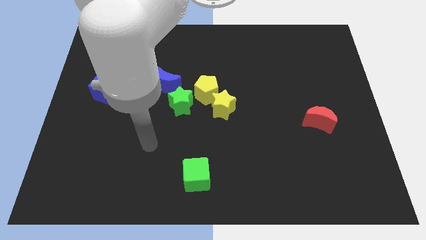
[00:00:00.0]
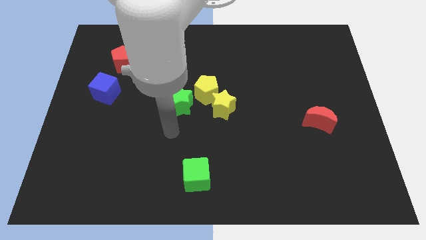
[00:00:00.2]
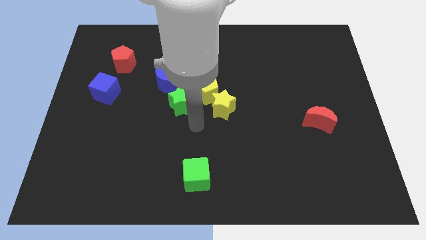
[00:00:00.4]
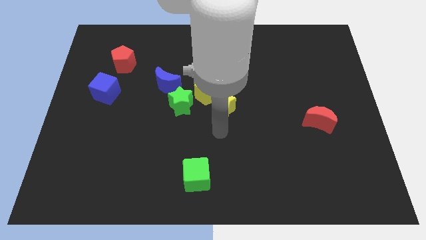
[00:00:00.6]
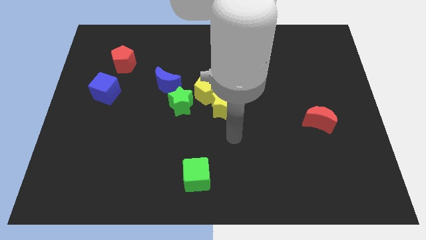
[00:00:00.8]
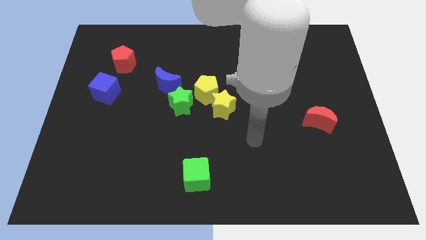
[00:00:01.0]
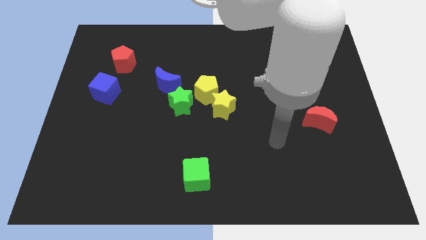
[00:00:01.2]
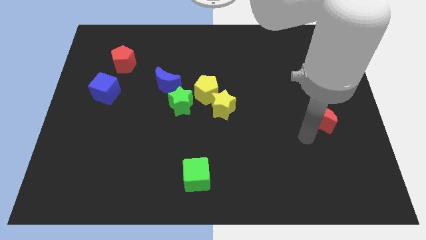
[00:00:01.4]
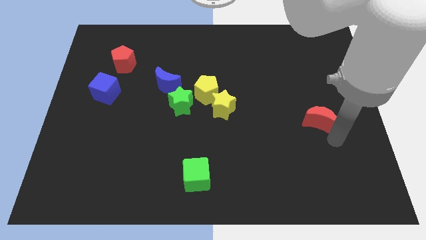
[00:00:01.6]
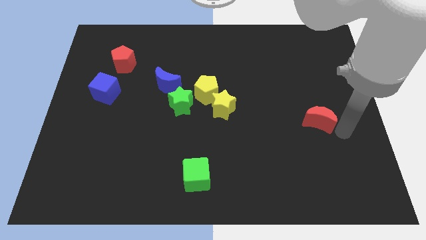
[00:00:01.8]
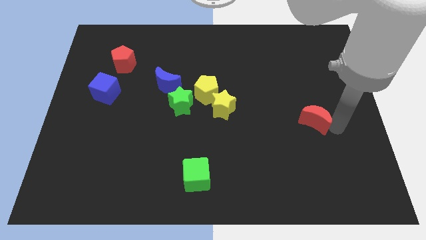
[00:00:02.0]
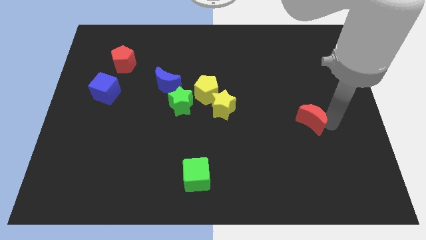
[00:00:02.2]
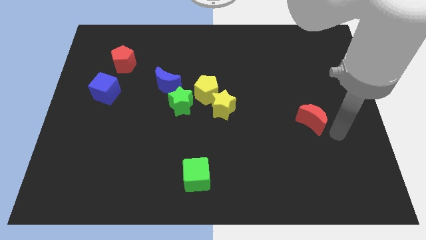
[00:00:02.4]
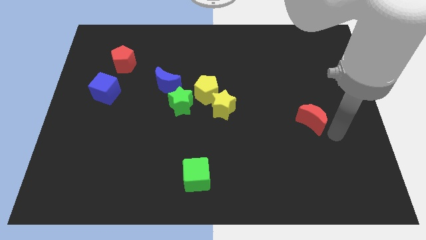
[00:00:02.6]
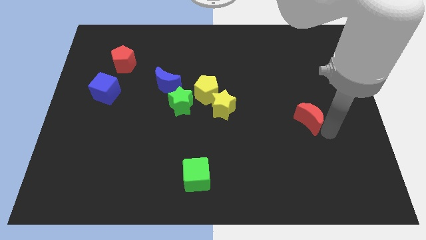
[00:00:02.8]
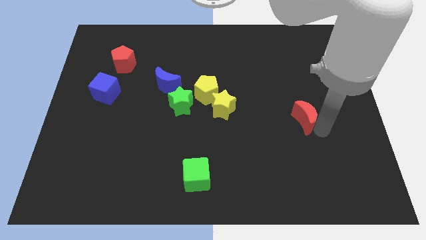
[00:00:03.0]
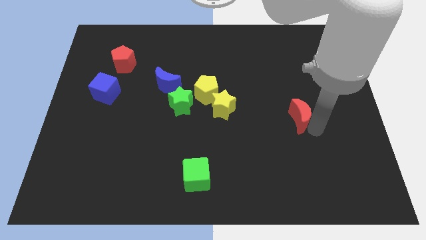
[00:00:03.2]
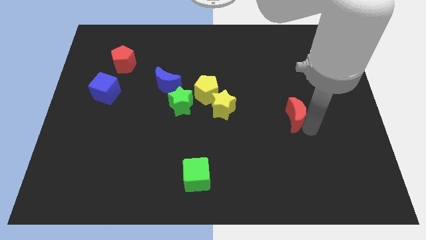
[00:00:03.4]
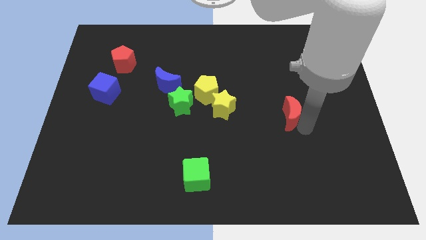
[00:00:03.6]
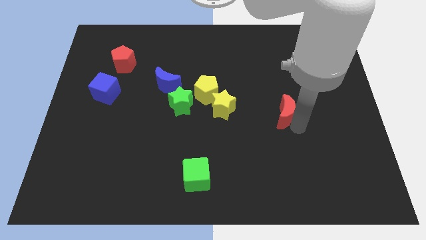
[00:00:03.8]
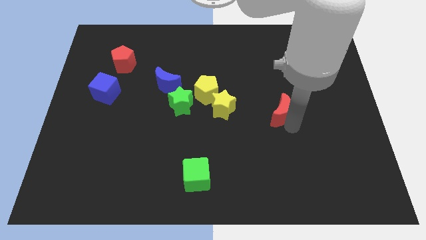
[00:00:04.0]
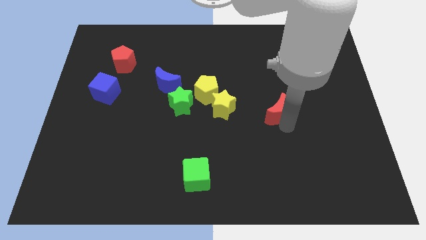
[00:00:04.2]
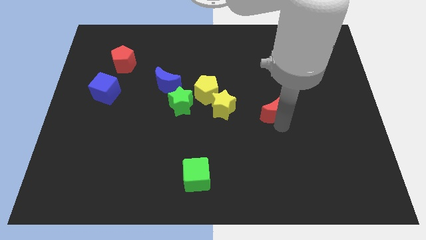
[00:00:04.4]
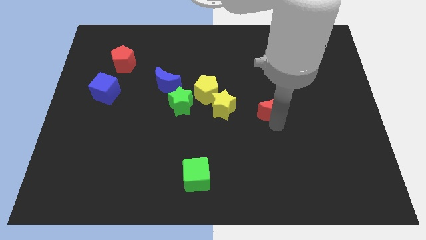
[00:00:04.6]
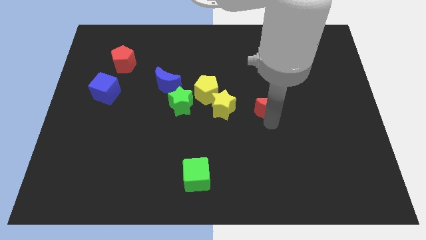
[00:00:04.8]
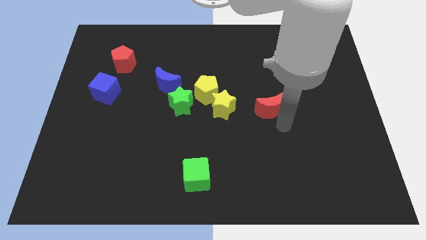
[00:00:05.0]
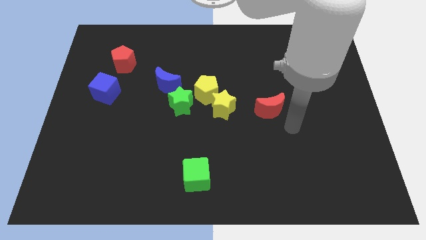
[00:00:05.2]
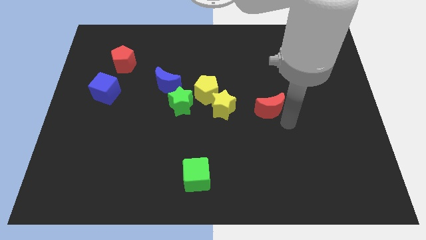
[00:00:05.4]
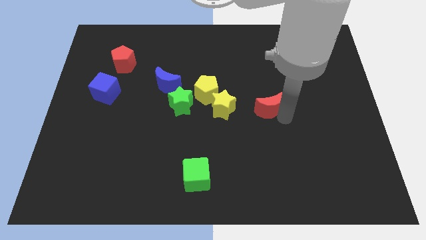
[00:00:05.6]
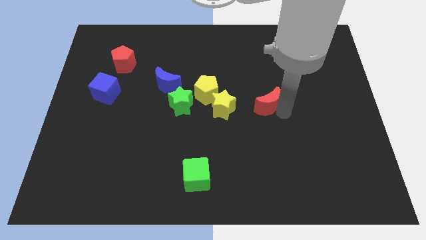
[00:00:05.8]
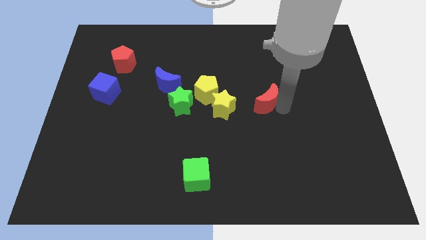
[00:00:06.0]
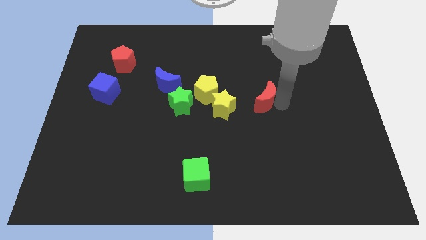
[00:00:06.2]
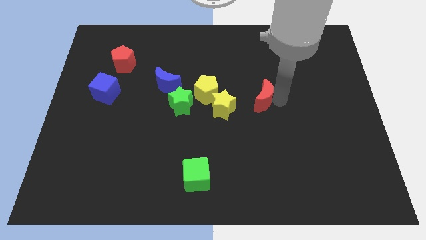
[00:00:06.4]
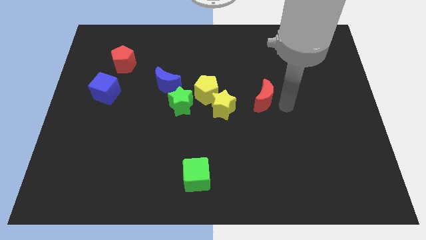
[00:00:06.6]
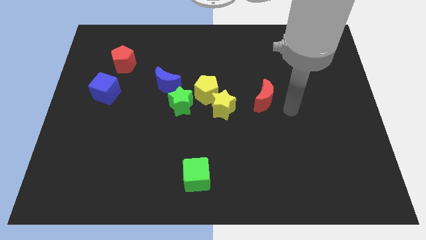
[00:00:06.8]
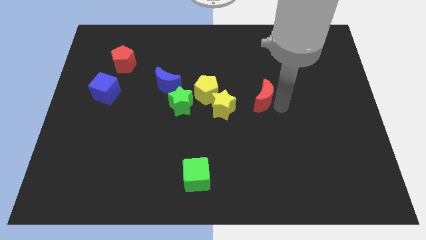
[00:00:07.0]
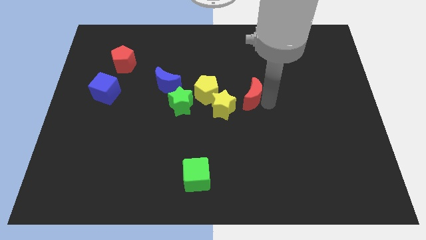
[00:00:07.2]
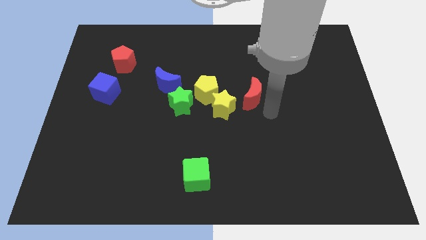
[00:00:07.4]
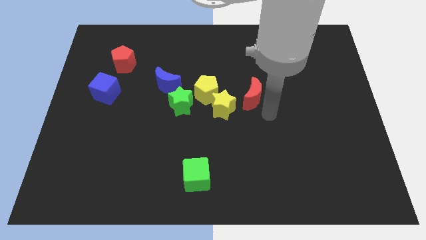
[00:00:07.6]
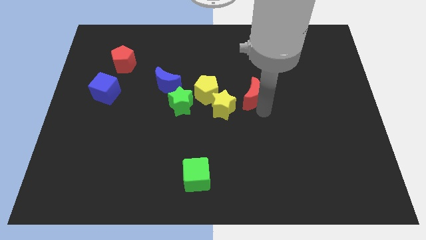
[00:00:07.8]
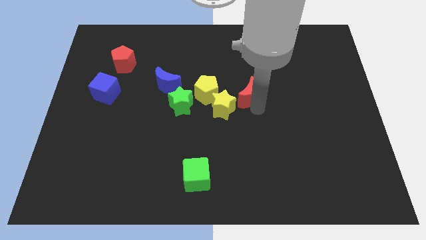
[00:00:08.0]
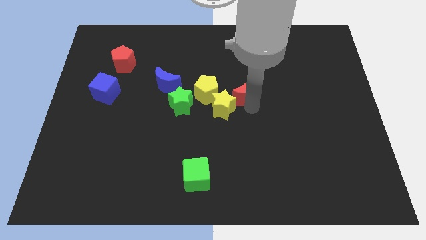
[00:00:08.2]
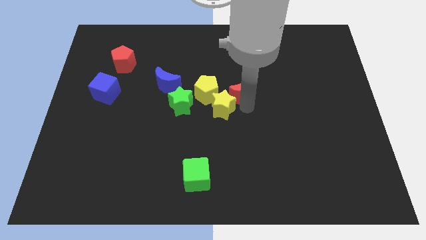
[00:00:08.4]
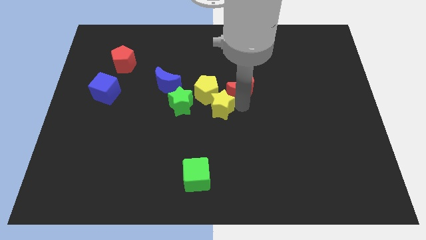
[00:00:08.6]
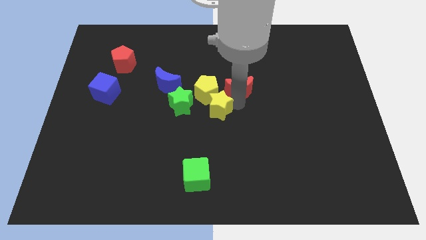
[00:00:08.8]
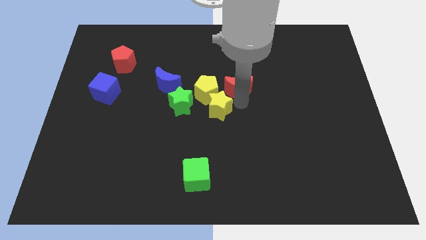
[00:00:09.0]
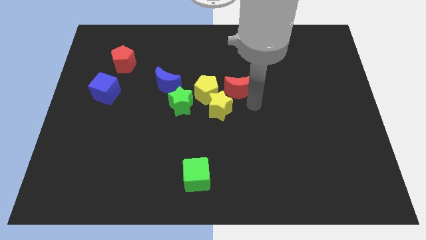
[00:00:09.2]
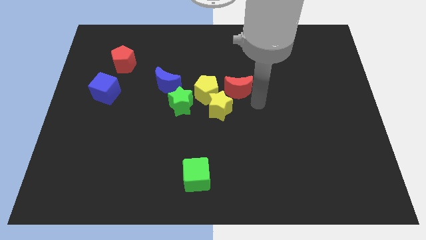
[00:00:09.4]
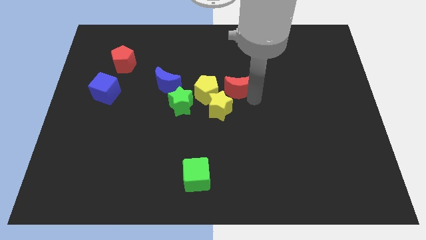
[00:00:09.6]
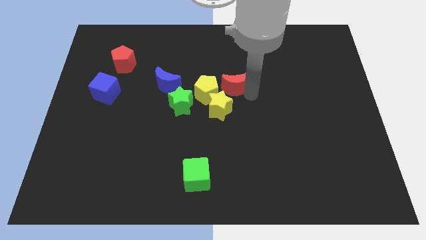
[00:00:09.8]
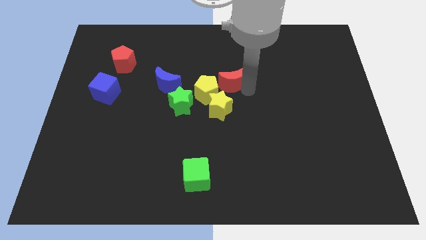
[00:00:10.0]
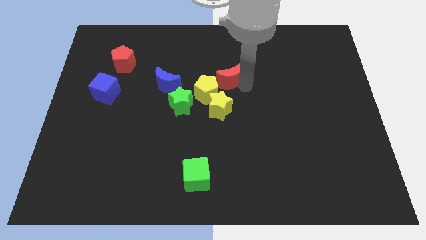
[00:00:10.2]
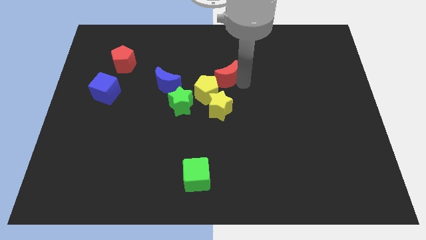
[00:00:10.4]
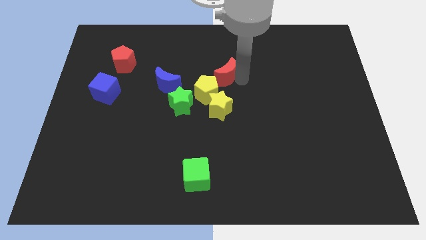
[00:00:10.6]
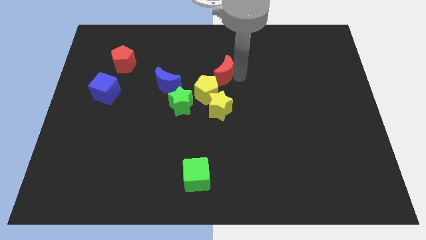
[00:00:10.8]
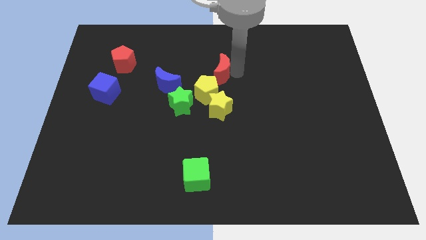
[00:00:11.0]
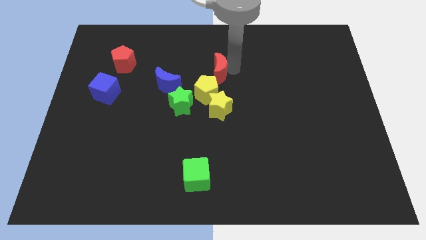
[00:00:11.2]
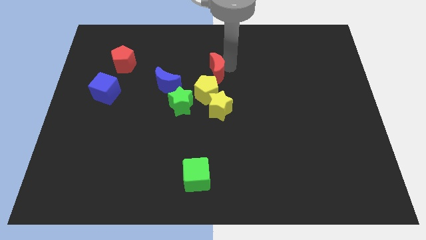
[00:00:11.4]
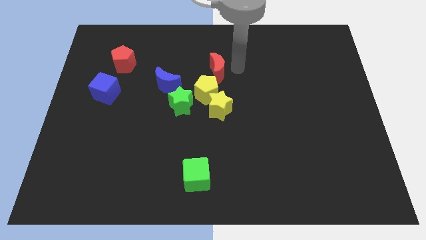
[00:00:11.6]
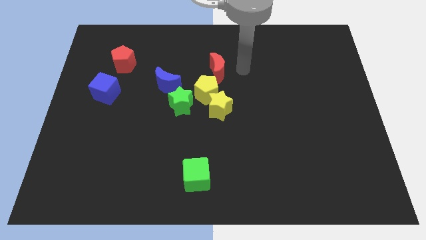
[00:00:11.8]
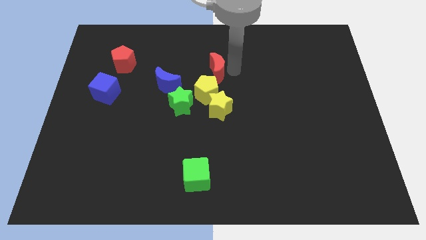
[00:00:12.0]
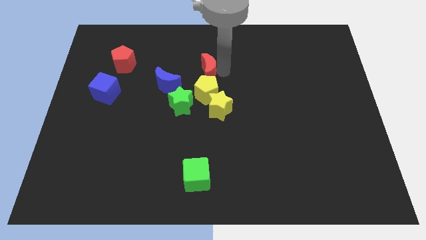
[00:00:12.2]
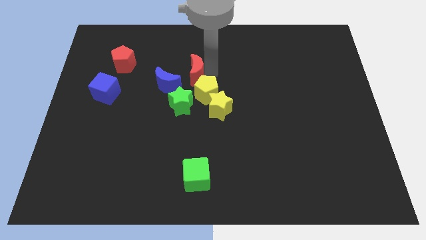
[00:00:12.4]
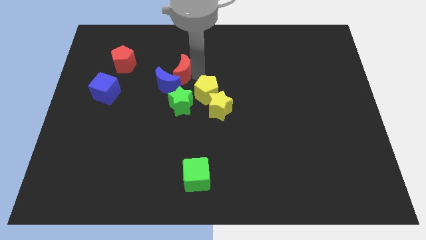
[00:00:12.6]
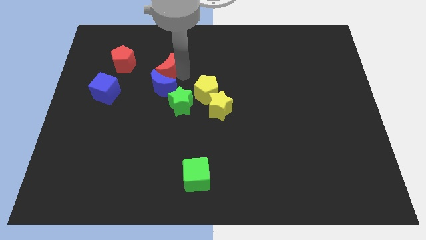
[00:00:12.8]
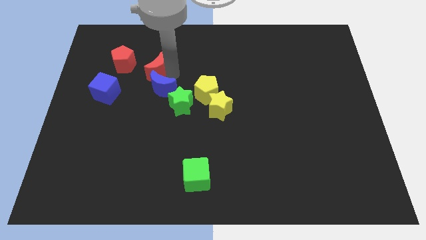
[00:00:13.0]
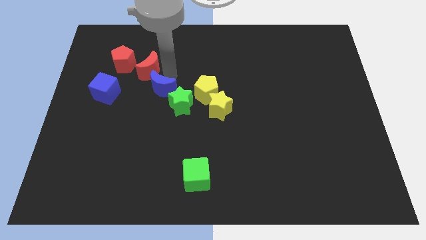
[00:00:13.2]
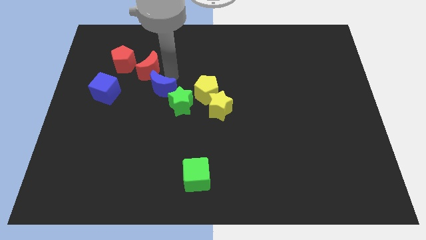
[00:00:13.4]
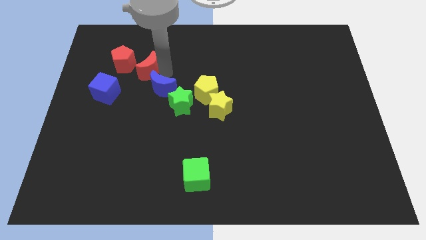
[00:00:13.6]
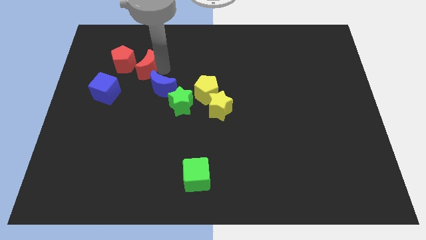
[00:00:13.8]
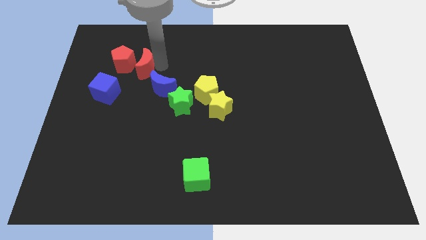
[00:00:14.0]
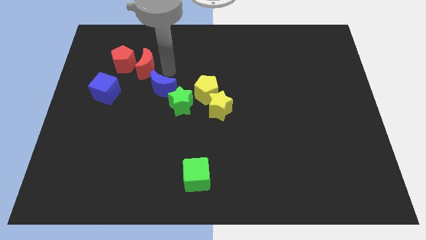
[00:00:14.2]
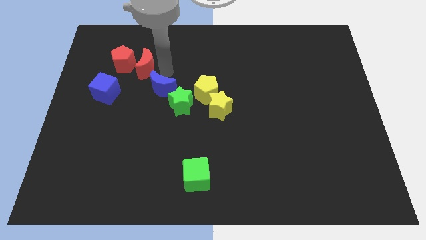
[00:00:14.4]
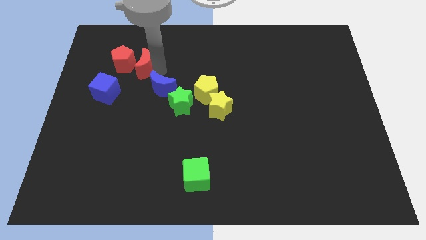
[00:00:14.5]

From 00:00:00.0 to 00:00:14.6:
slide the red moon next to the red pentagon

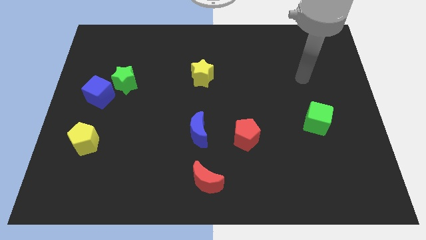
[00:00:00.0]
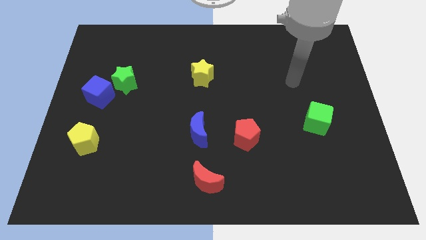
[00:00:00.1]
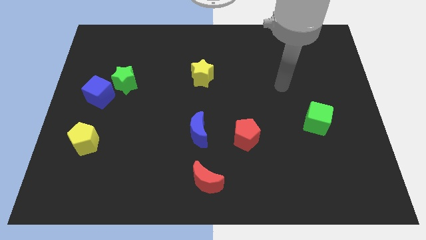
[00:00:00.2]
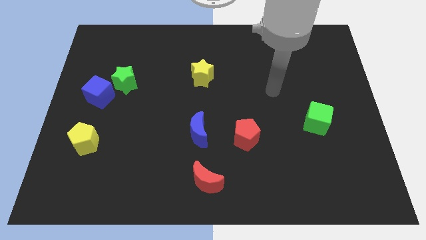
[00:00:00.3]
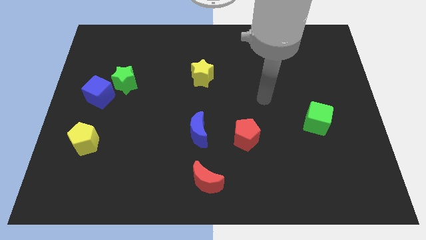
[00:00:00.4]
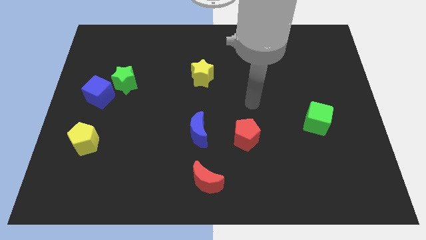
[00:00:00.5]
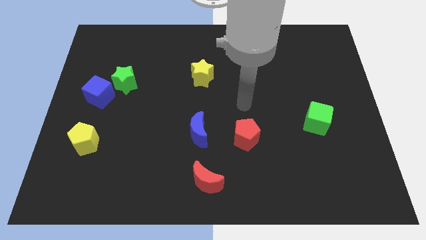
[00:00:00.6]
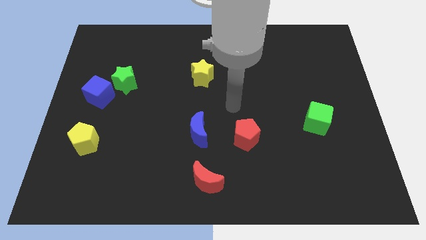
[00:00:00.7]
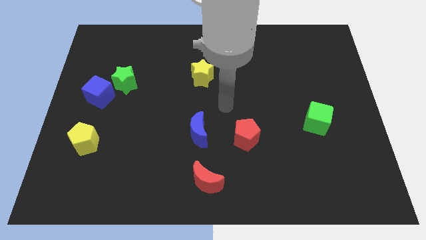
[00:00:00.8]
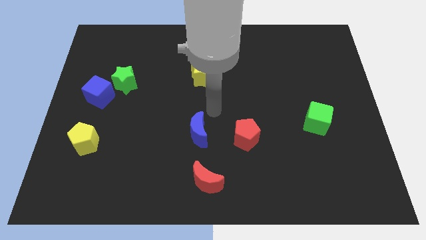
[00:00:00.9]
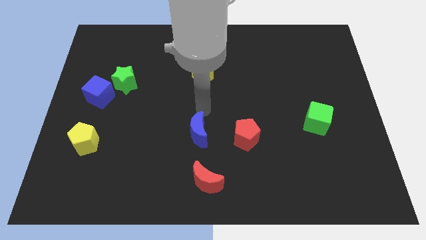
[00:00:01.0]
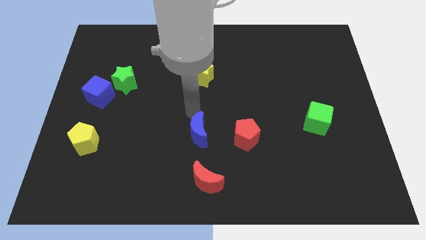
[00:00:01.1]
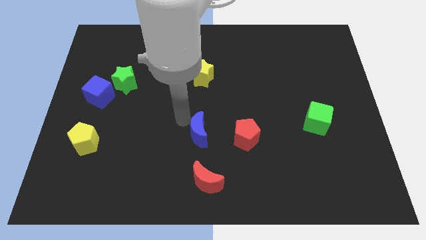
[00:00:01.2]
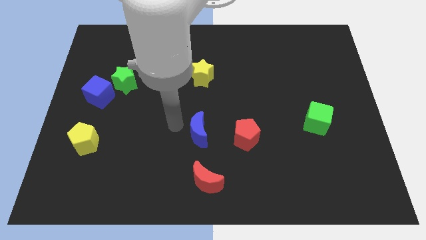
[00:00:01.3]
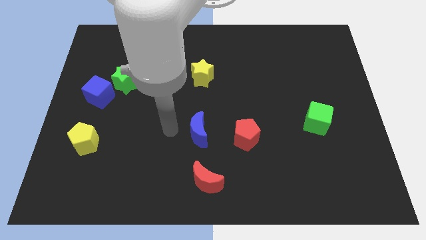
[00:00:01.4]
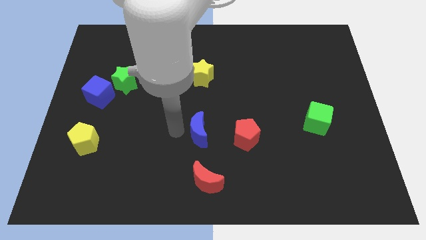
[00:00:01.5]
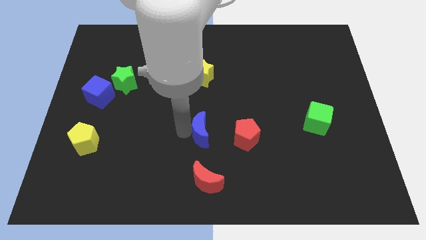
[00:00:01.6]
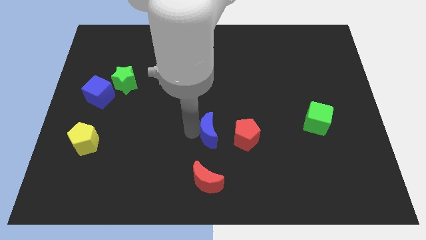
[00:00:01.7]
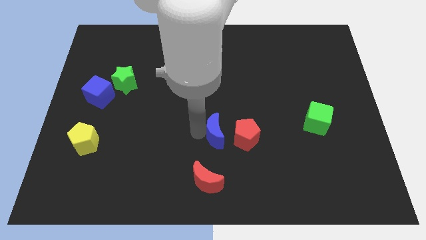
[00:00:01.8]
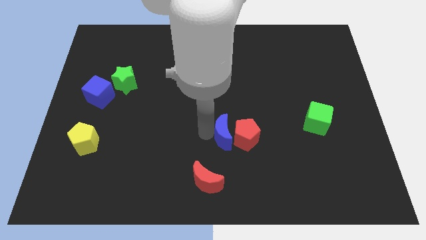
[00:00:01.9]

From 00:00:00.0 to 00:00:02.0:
move the blue moon close to the red pentagon
